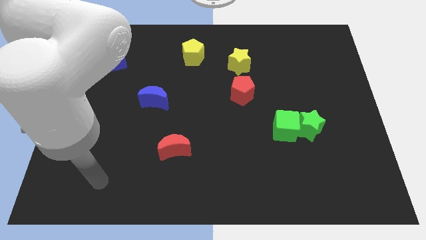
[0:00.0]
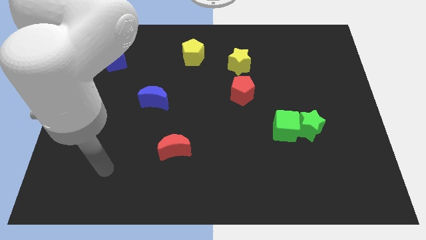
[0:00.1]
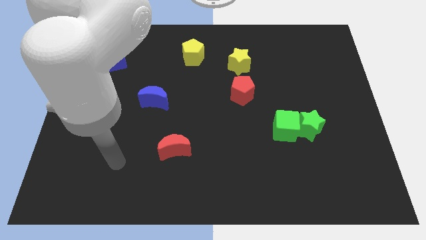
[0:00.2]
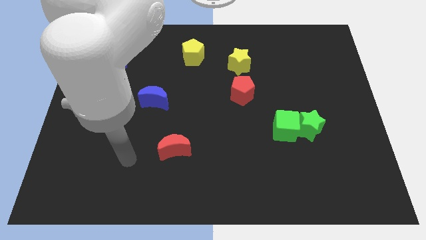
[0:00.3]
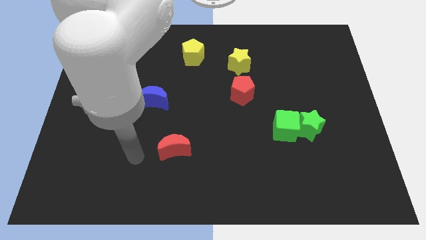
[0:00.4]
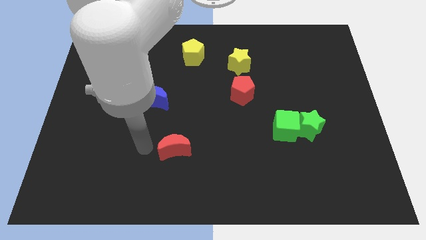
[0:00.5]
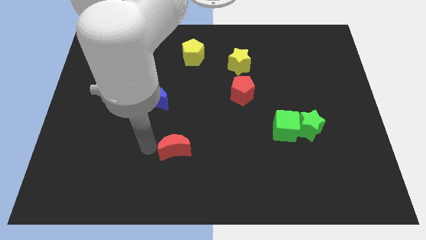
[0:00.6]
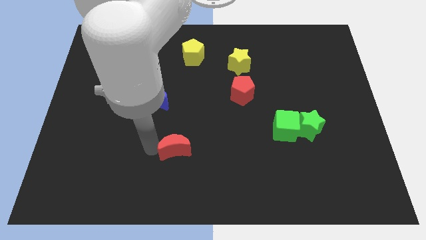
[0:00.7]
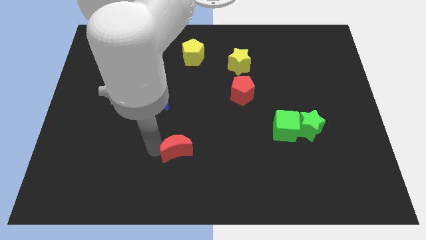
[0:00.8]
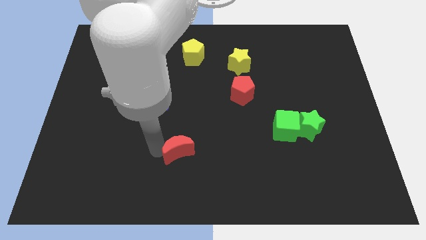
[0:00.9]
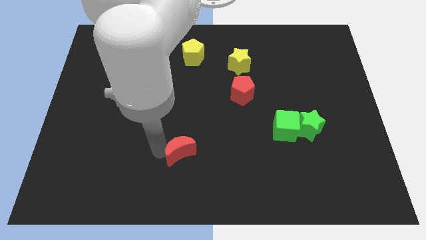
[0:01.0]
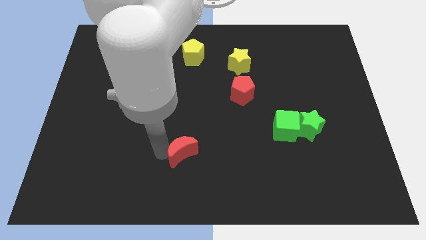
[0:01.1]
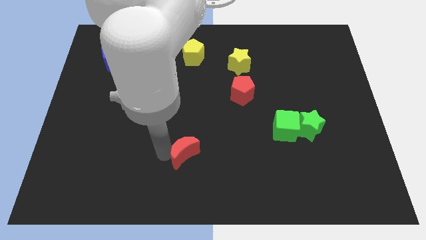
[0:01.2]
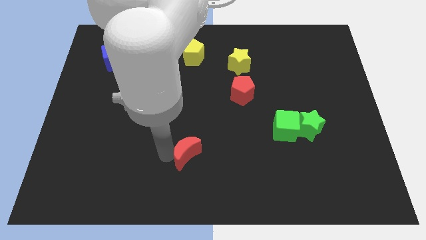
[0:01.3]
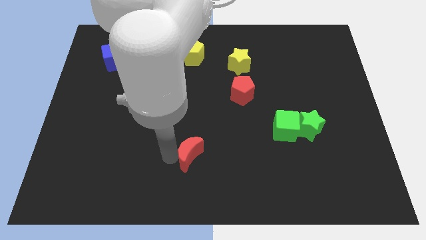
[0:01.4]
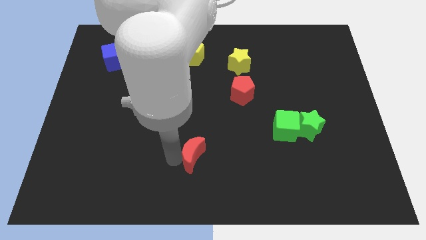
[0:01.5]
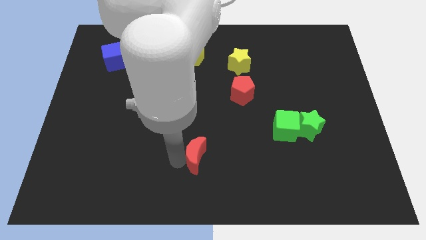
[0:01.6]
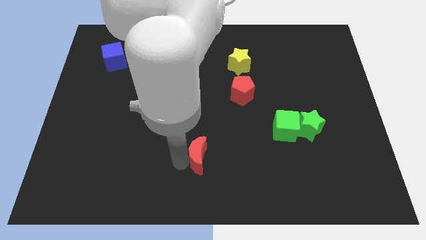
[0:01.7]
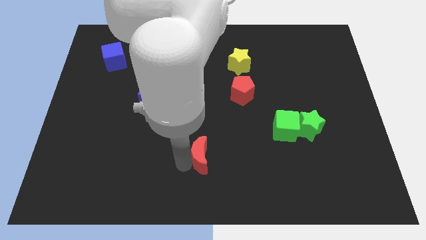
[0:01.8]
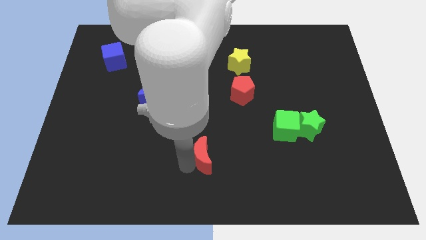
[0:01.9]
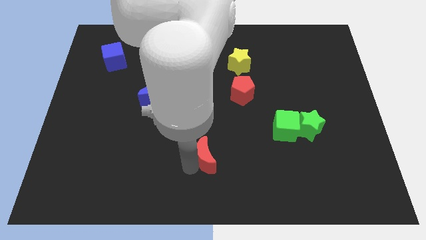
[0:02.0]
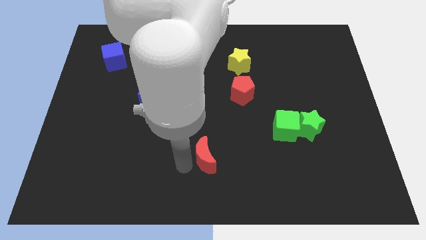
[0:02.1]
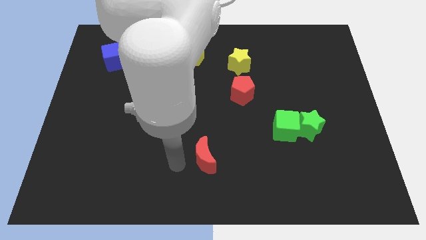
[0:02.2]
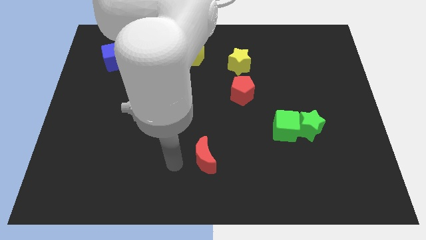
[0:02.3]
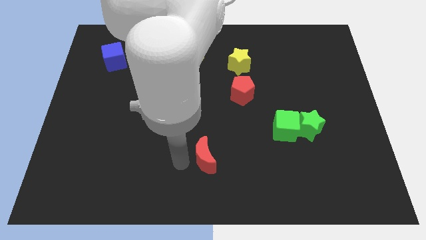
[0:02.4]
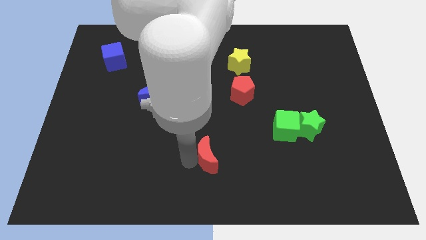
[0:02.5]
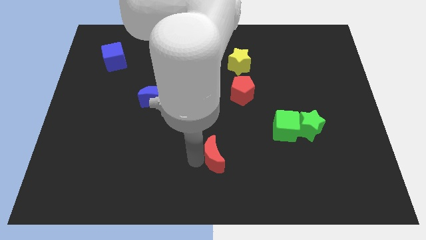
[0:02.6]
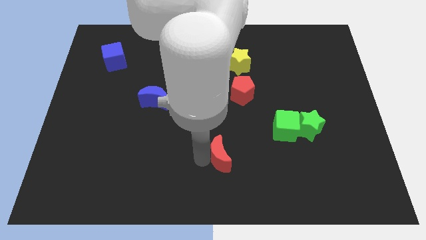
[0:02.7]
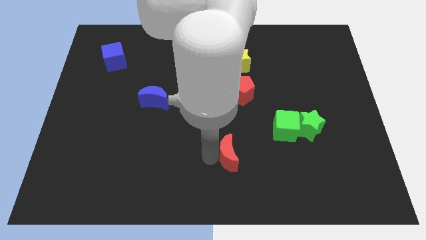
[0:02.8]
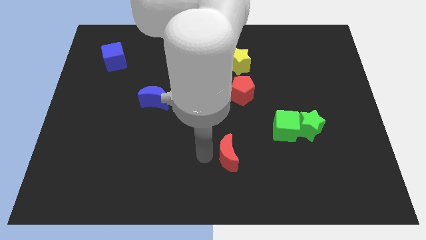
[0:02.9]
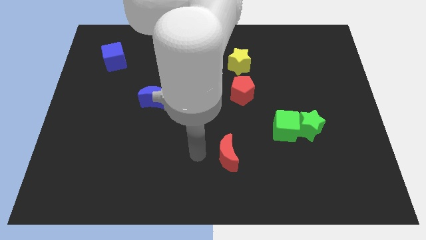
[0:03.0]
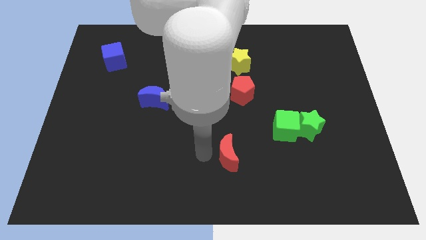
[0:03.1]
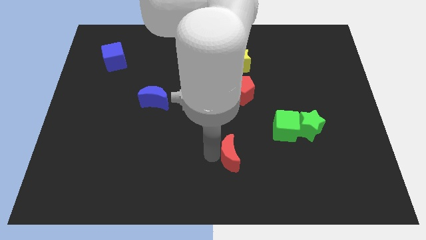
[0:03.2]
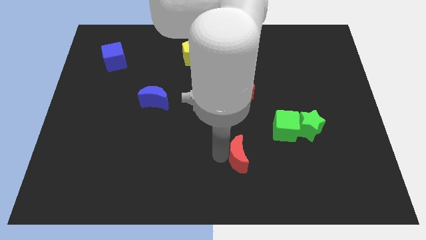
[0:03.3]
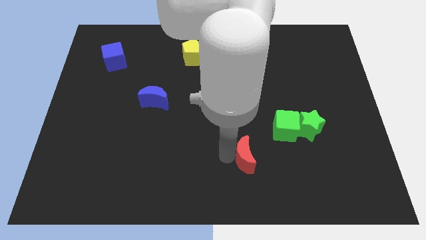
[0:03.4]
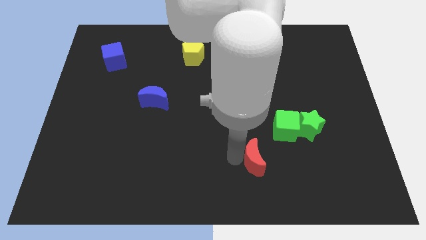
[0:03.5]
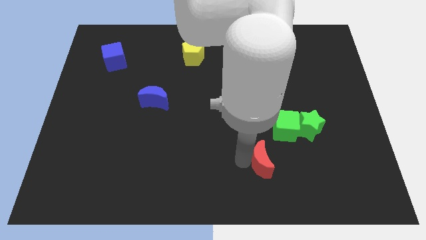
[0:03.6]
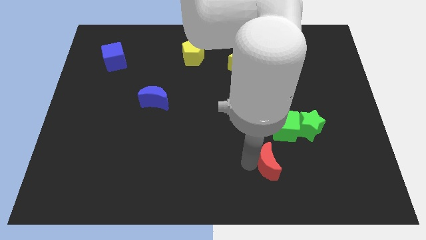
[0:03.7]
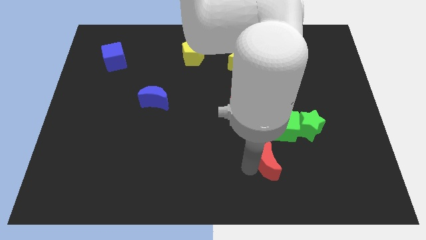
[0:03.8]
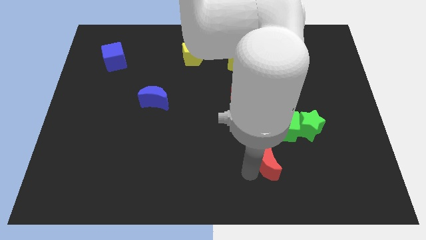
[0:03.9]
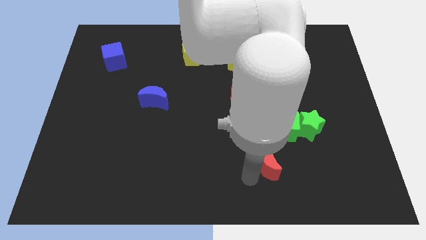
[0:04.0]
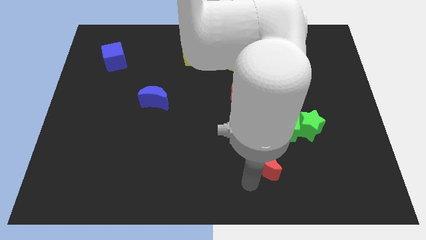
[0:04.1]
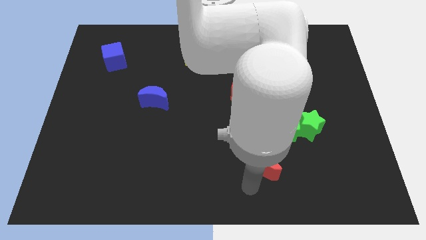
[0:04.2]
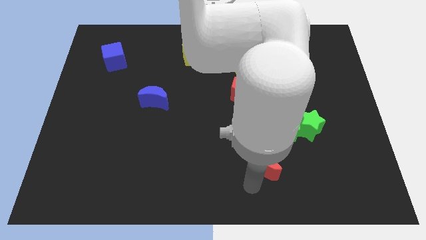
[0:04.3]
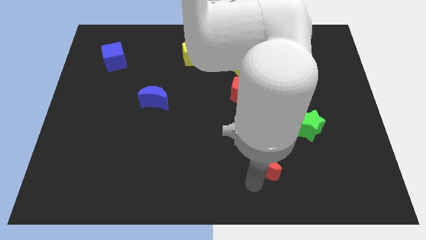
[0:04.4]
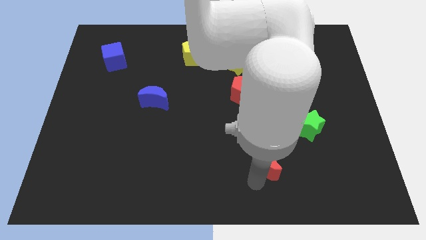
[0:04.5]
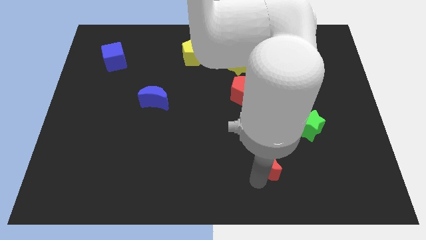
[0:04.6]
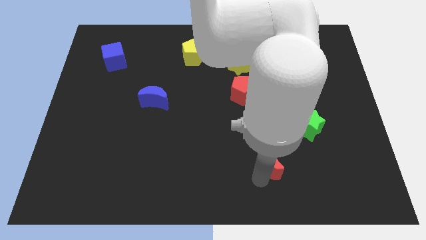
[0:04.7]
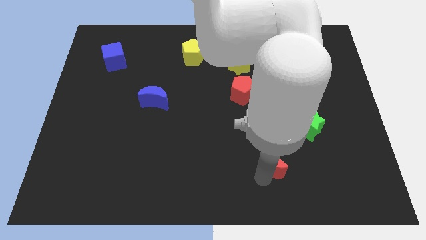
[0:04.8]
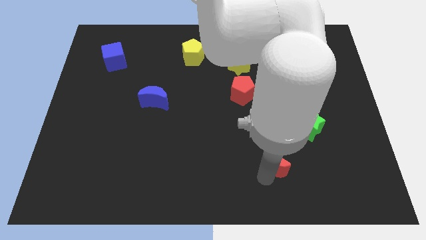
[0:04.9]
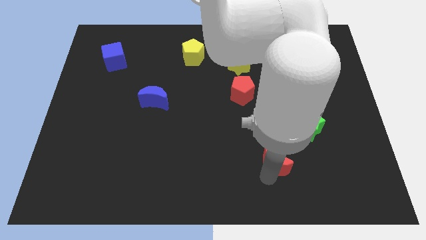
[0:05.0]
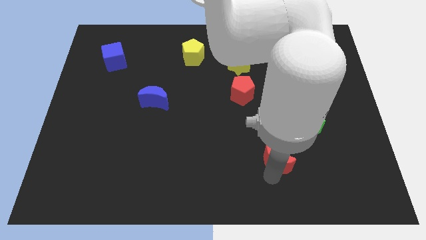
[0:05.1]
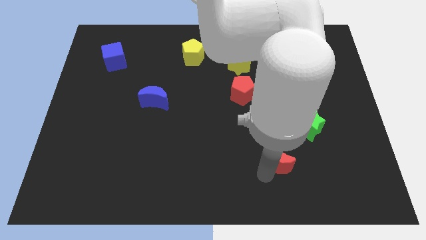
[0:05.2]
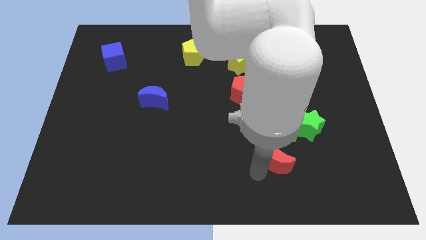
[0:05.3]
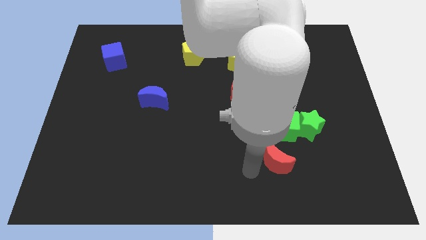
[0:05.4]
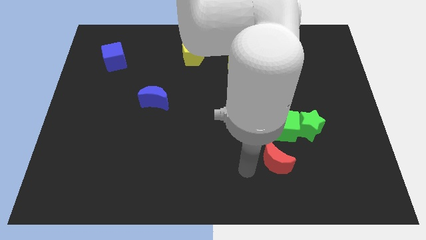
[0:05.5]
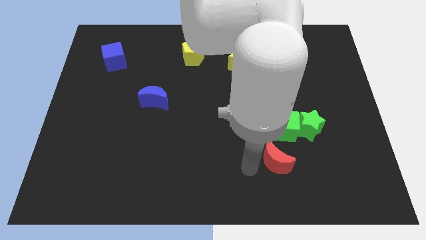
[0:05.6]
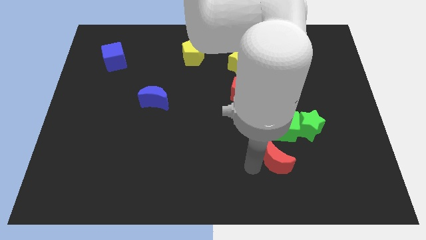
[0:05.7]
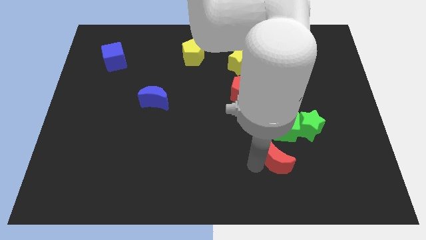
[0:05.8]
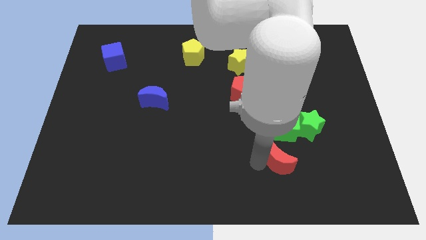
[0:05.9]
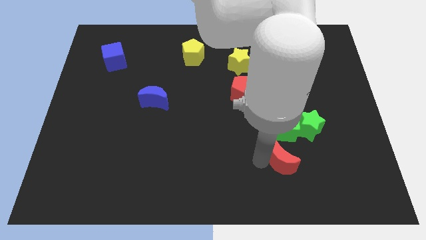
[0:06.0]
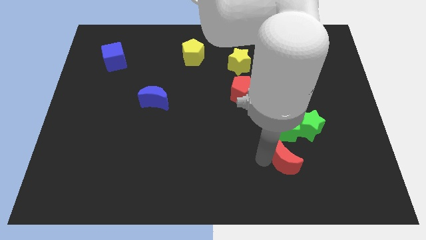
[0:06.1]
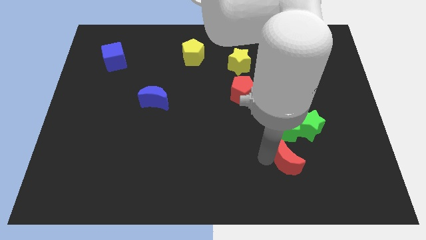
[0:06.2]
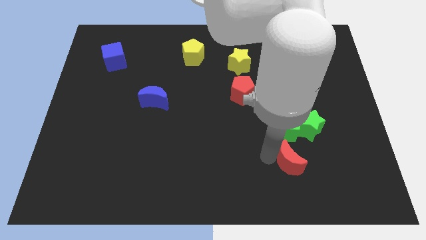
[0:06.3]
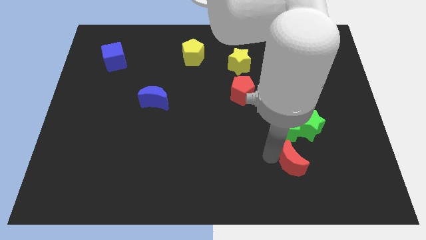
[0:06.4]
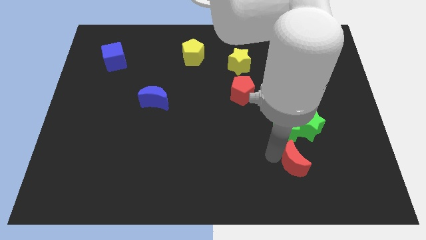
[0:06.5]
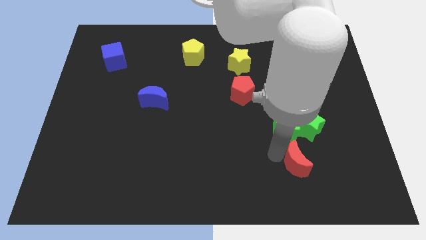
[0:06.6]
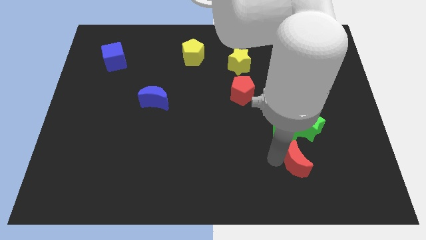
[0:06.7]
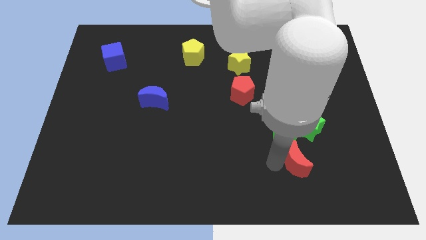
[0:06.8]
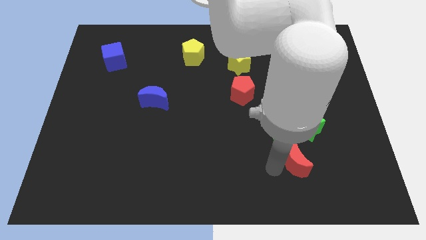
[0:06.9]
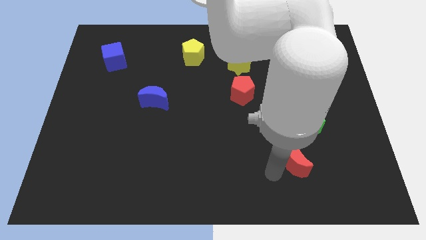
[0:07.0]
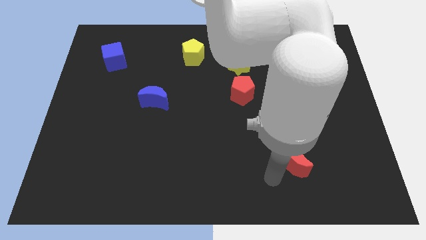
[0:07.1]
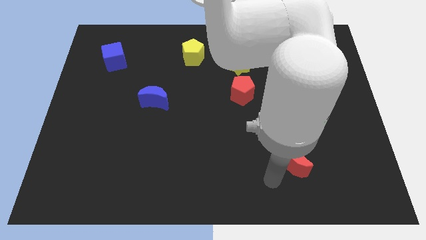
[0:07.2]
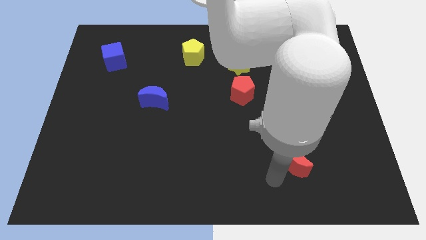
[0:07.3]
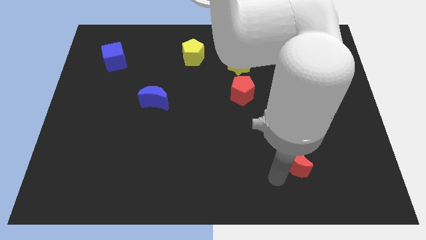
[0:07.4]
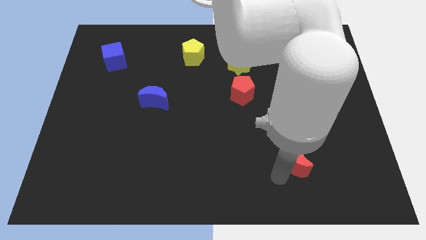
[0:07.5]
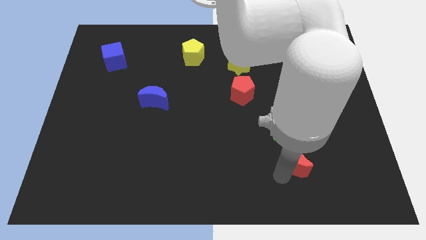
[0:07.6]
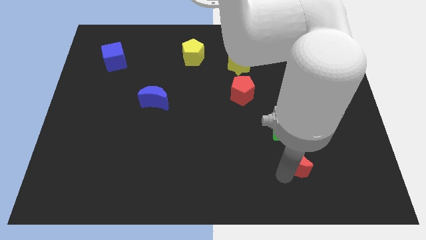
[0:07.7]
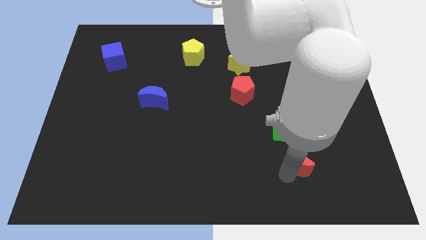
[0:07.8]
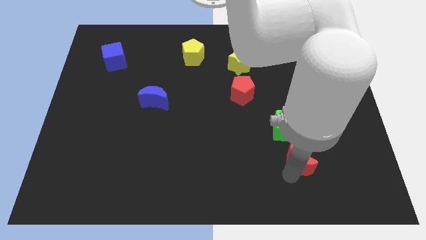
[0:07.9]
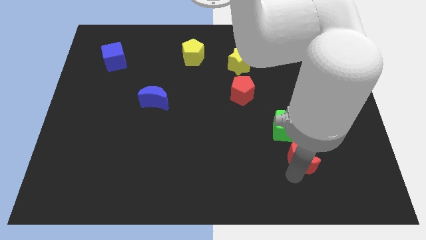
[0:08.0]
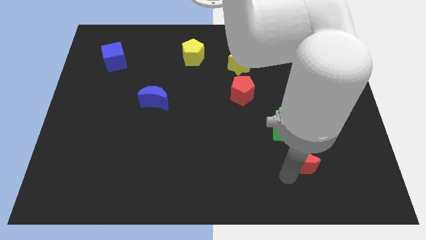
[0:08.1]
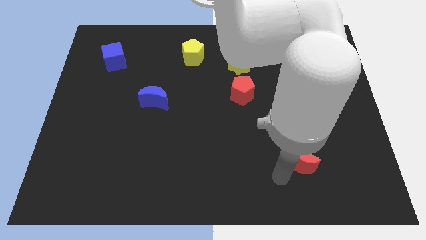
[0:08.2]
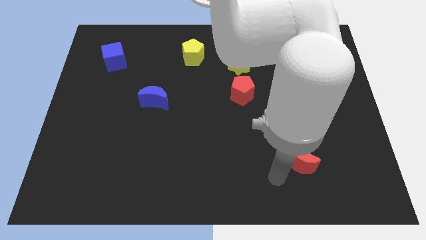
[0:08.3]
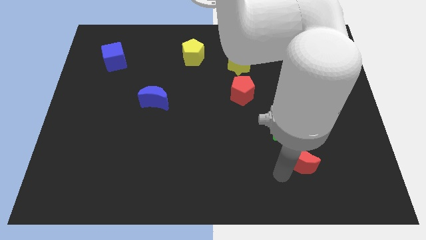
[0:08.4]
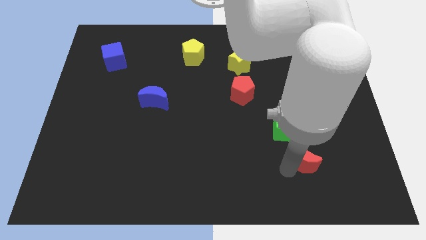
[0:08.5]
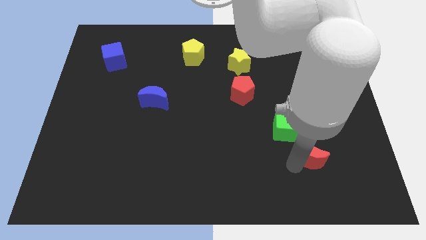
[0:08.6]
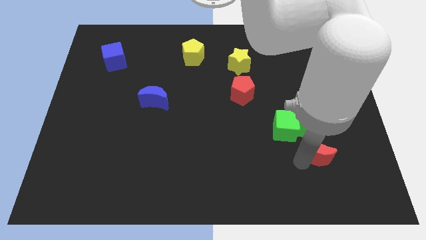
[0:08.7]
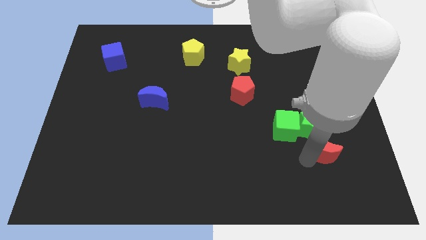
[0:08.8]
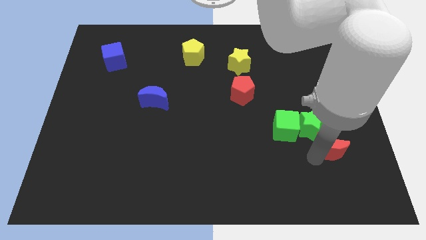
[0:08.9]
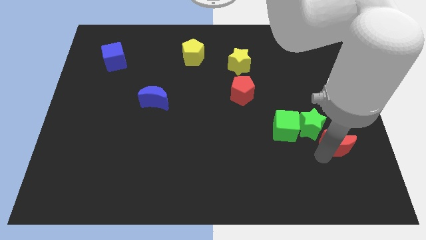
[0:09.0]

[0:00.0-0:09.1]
put the red moon to the right of the green cube
